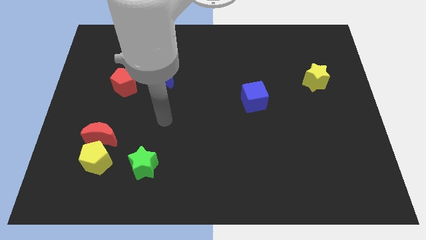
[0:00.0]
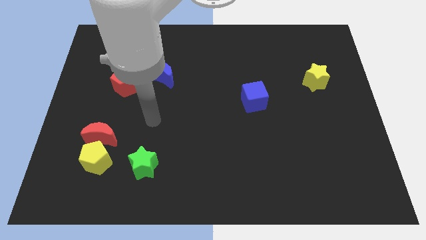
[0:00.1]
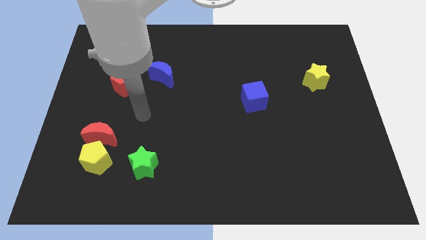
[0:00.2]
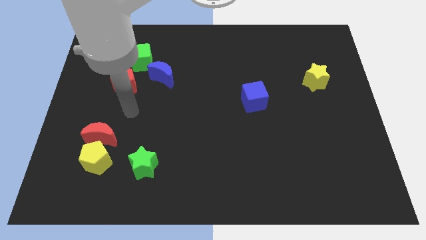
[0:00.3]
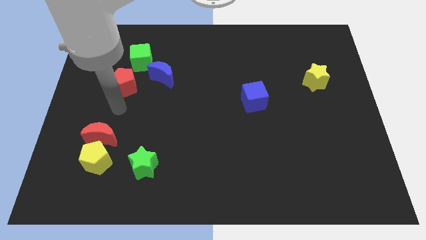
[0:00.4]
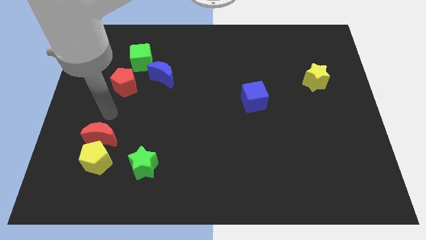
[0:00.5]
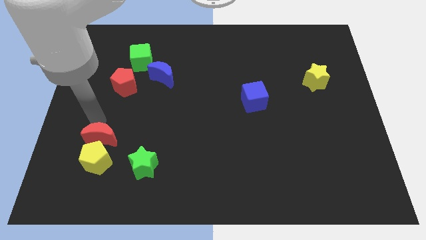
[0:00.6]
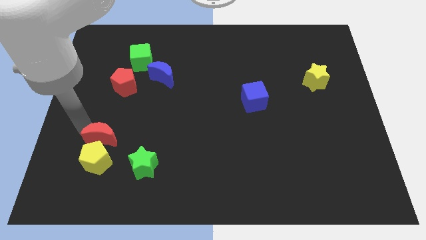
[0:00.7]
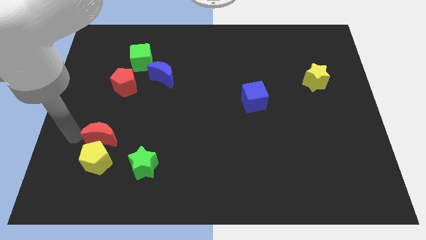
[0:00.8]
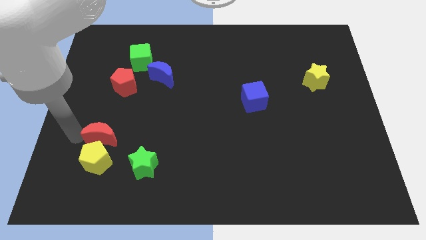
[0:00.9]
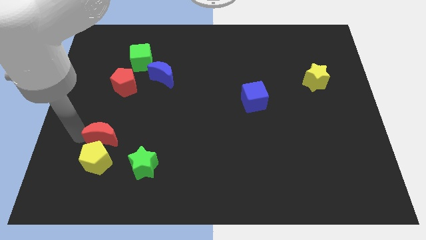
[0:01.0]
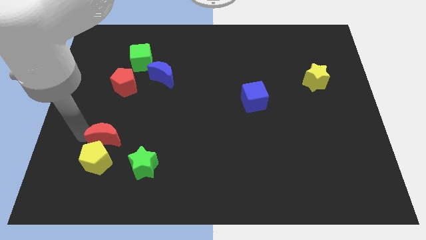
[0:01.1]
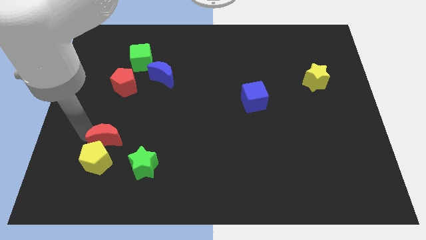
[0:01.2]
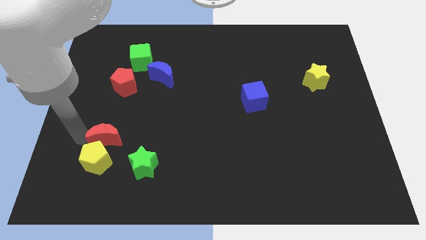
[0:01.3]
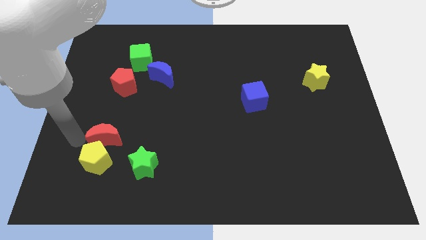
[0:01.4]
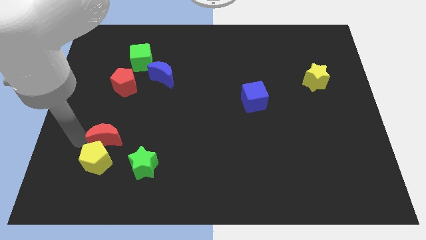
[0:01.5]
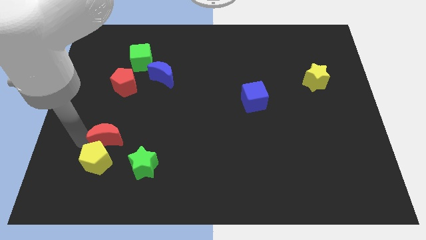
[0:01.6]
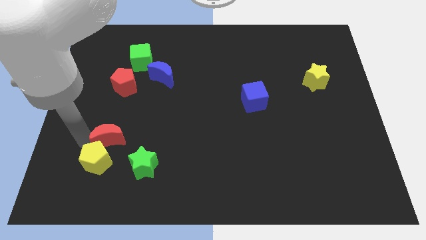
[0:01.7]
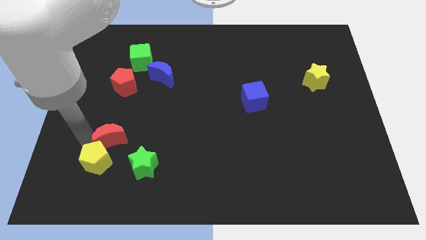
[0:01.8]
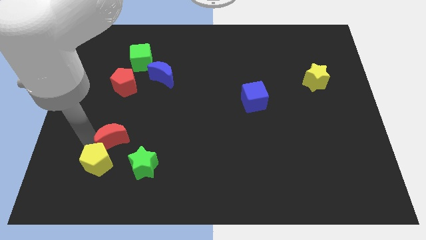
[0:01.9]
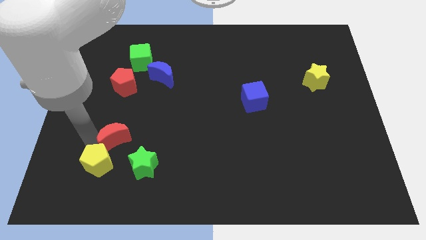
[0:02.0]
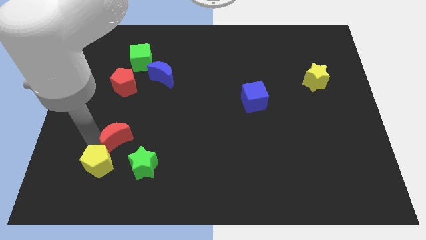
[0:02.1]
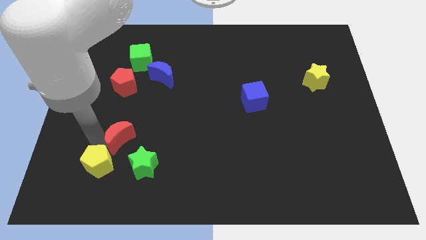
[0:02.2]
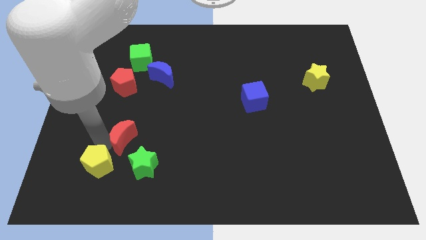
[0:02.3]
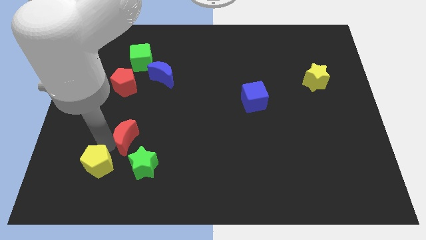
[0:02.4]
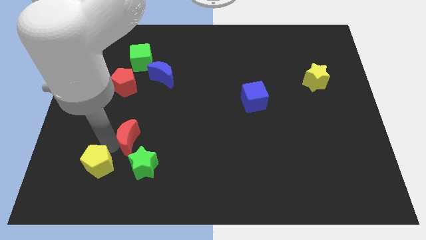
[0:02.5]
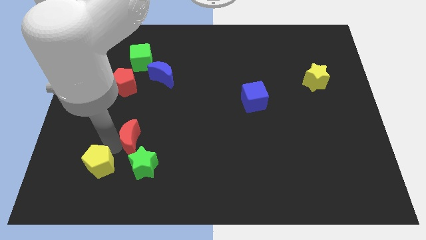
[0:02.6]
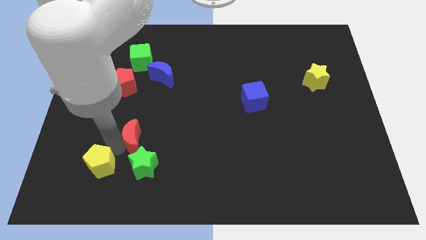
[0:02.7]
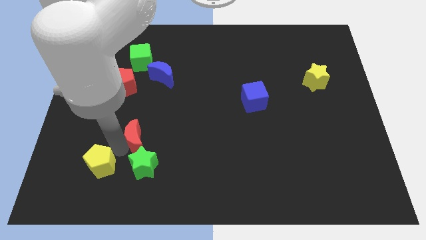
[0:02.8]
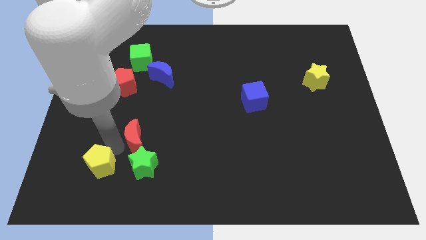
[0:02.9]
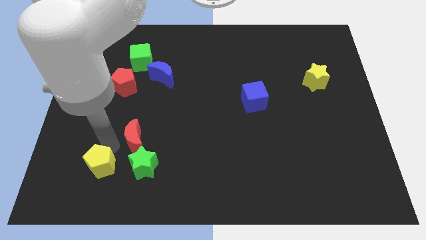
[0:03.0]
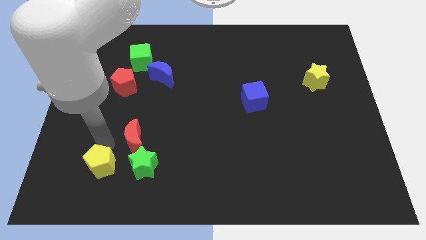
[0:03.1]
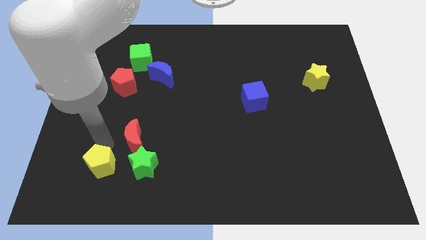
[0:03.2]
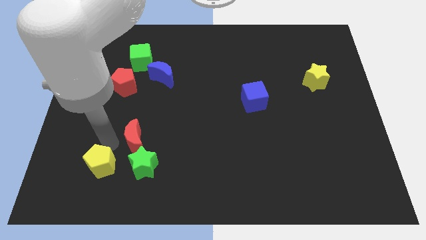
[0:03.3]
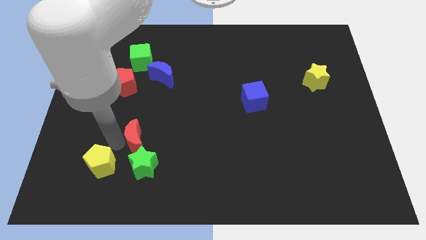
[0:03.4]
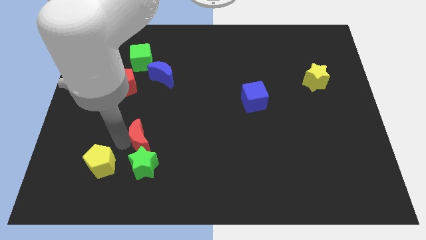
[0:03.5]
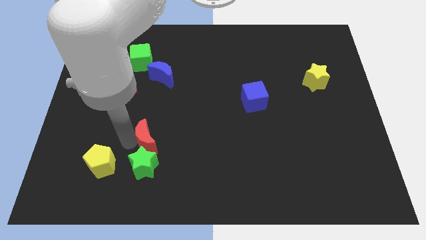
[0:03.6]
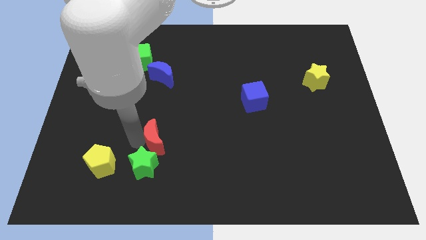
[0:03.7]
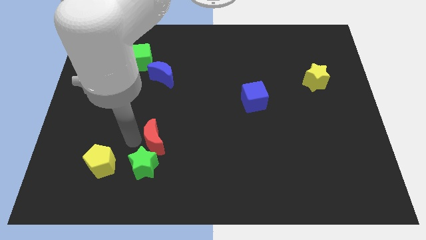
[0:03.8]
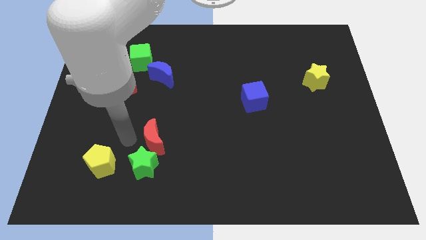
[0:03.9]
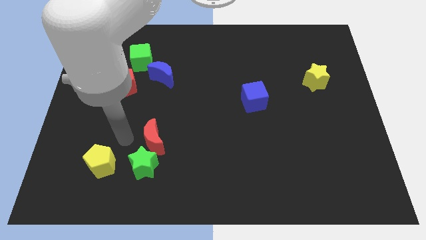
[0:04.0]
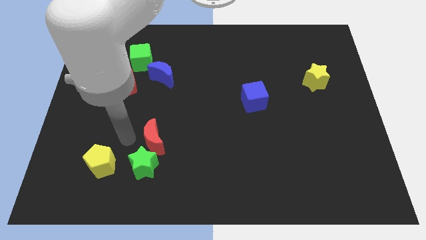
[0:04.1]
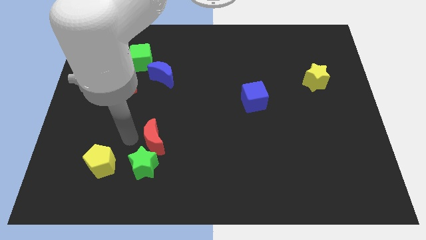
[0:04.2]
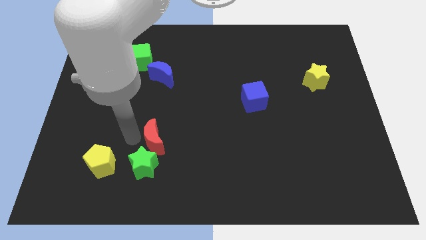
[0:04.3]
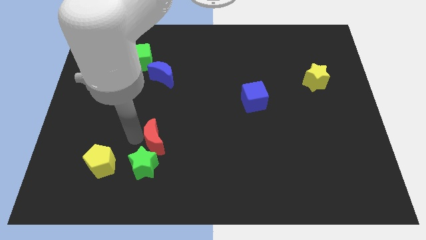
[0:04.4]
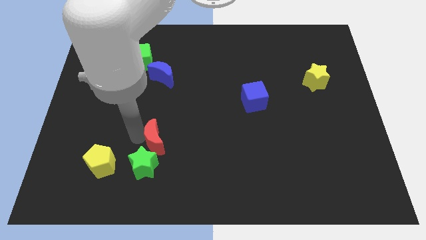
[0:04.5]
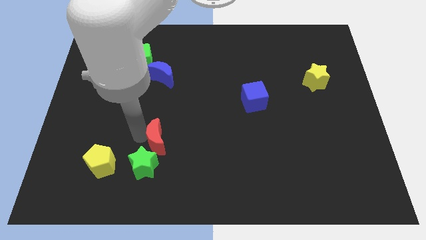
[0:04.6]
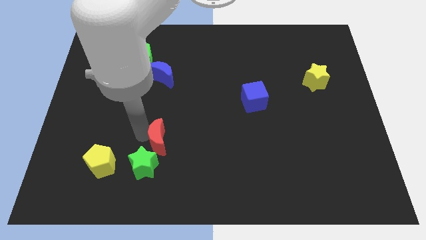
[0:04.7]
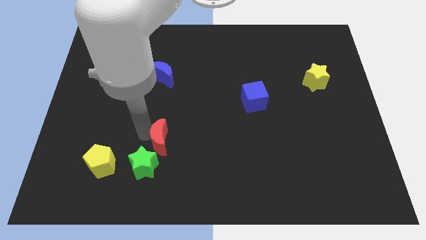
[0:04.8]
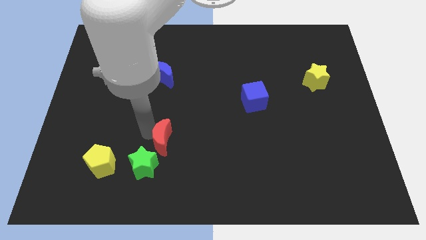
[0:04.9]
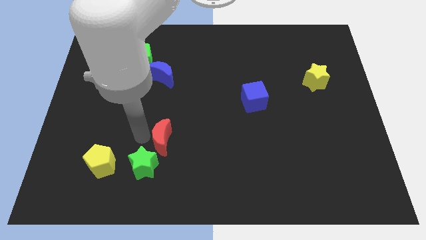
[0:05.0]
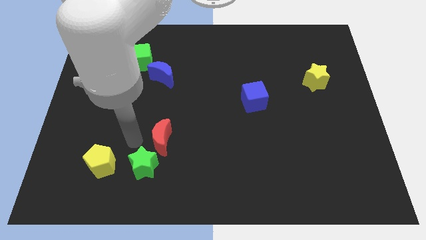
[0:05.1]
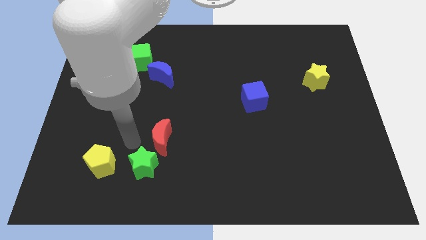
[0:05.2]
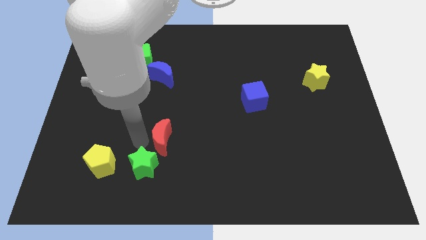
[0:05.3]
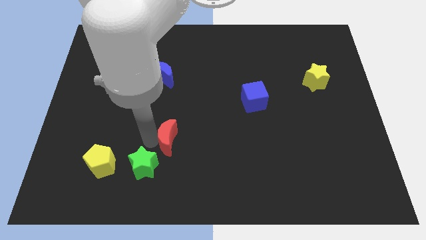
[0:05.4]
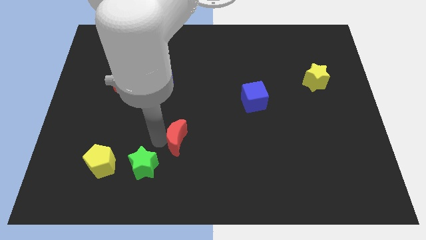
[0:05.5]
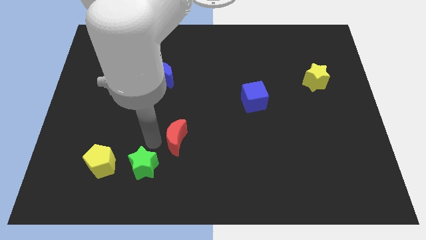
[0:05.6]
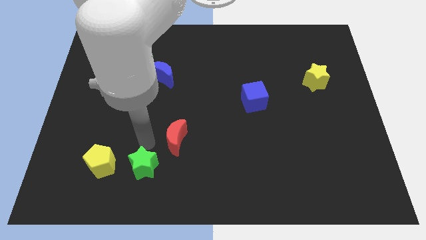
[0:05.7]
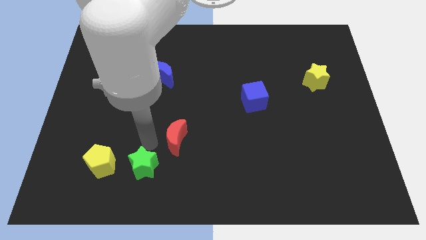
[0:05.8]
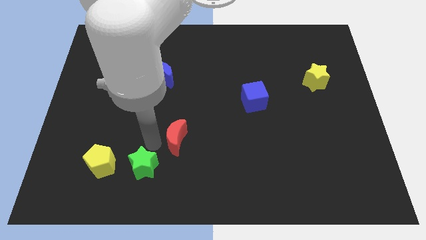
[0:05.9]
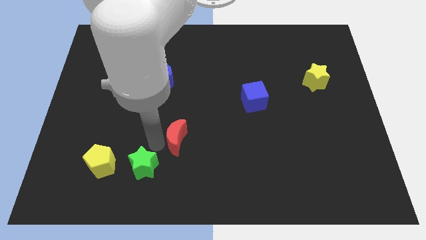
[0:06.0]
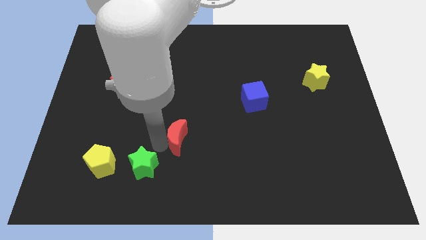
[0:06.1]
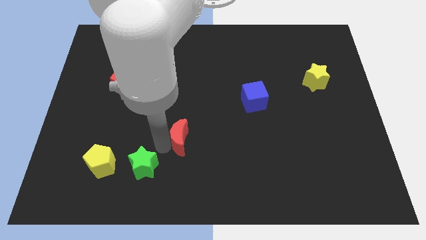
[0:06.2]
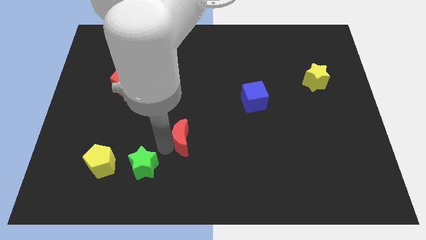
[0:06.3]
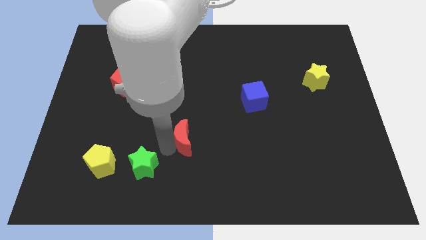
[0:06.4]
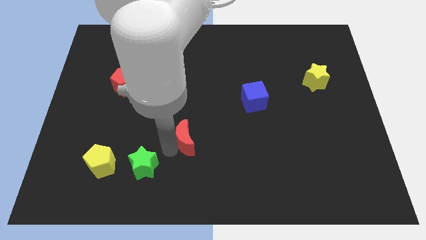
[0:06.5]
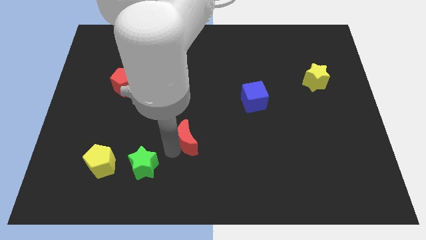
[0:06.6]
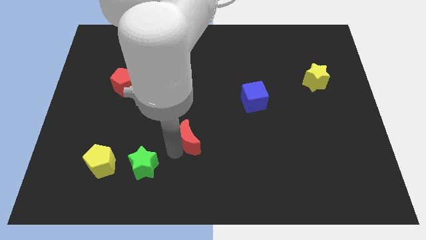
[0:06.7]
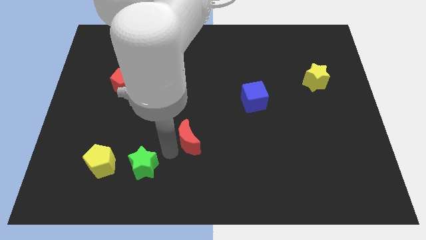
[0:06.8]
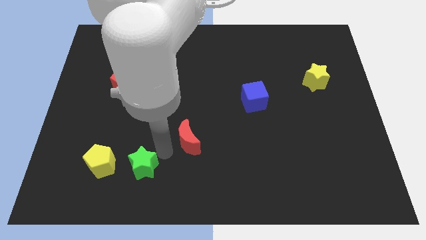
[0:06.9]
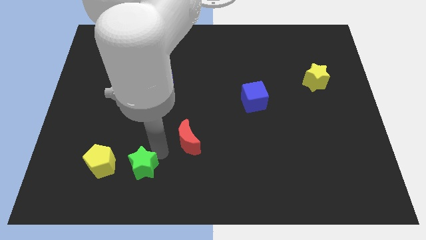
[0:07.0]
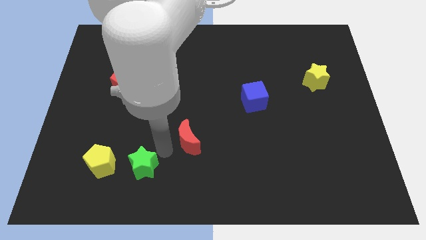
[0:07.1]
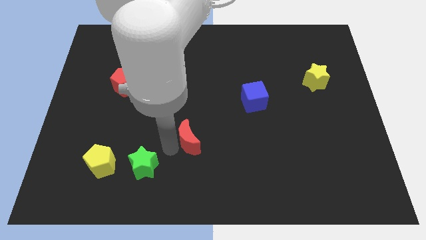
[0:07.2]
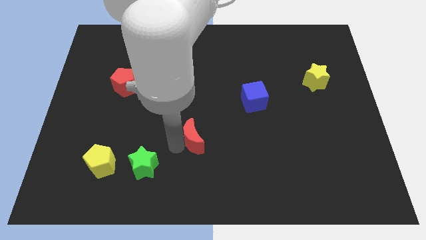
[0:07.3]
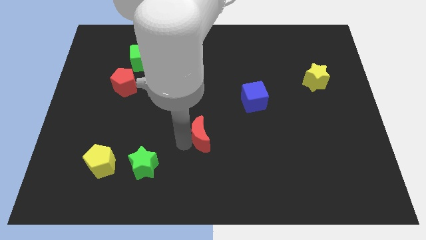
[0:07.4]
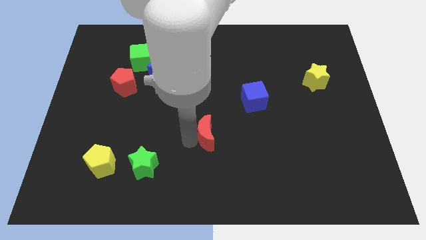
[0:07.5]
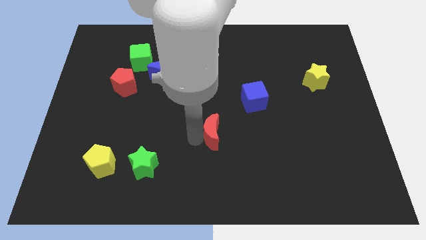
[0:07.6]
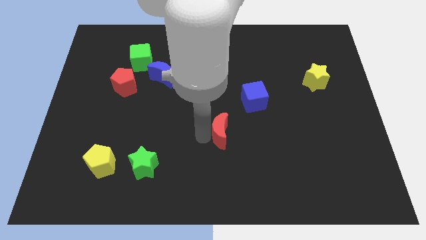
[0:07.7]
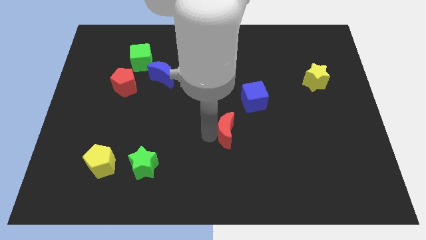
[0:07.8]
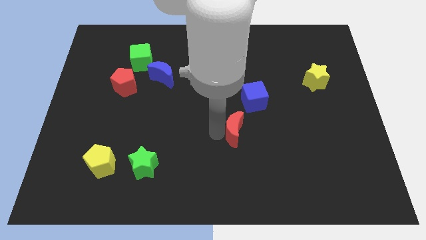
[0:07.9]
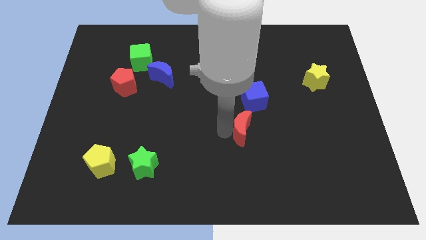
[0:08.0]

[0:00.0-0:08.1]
slide the red moon to the bottom side of the blue cube
